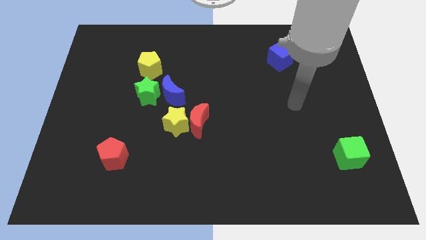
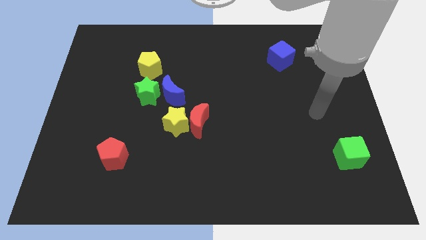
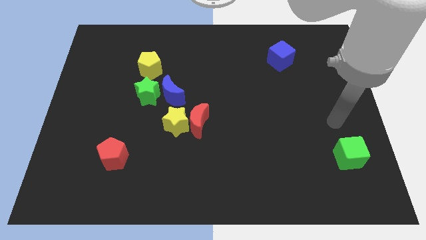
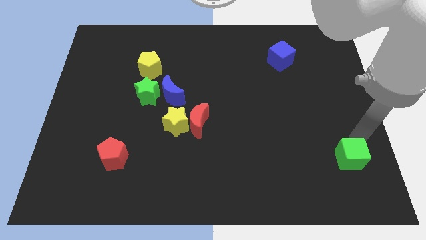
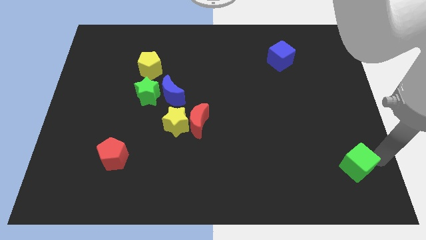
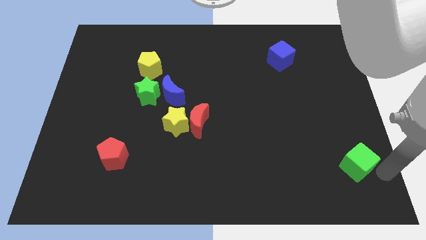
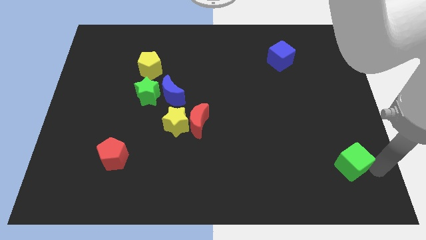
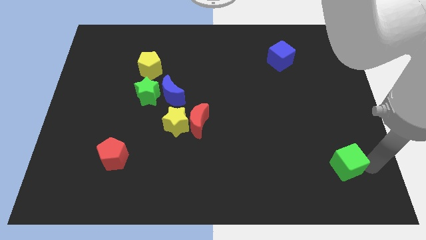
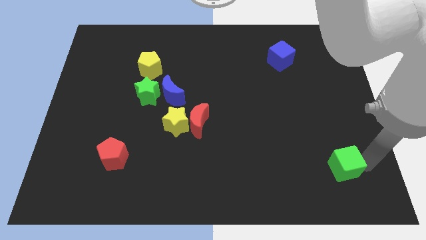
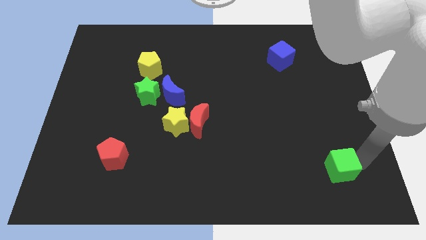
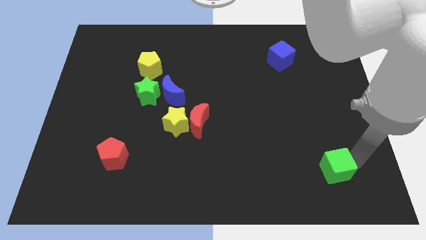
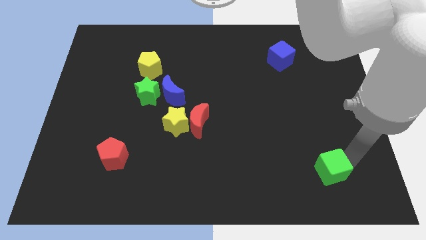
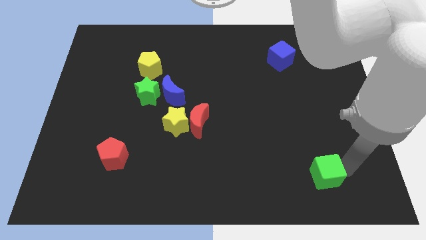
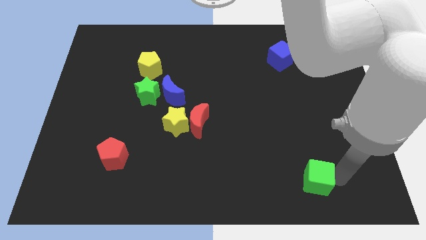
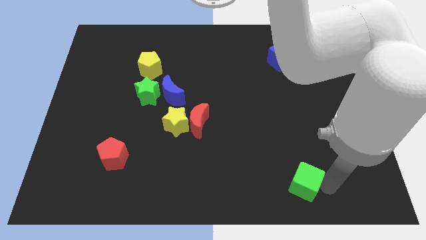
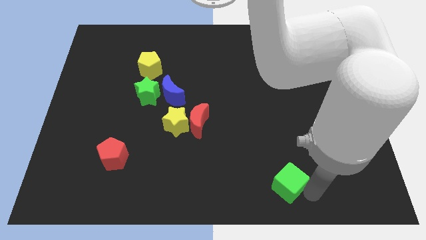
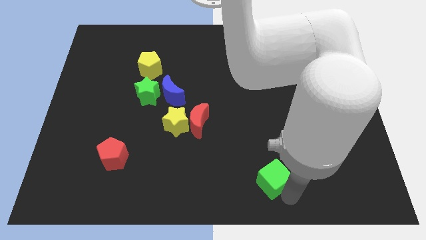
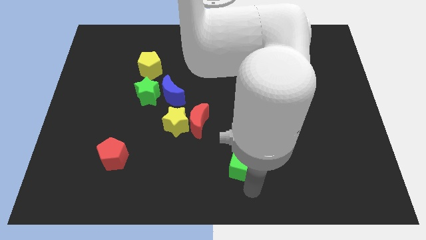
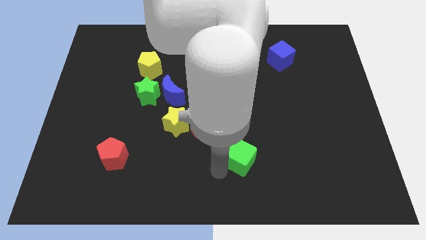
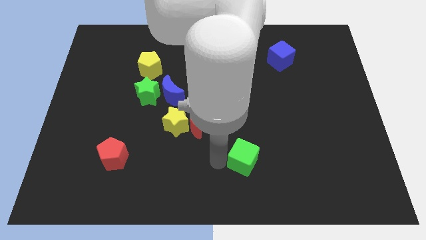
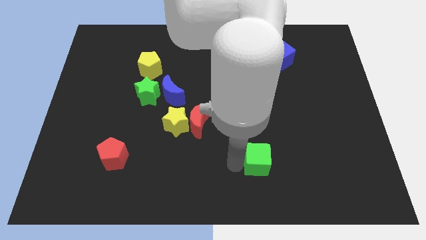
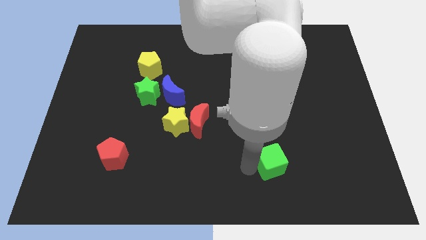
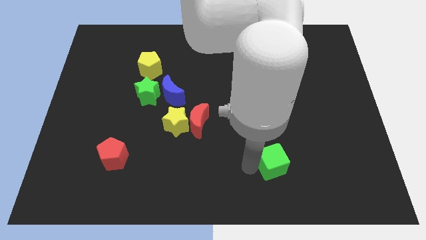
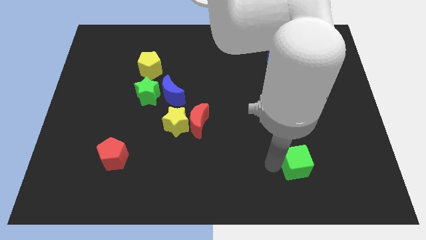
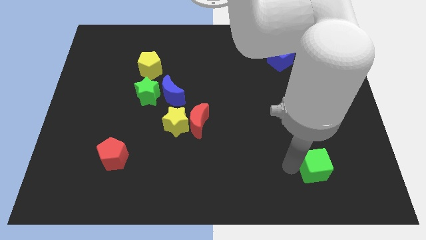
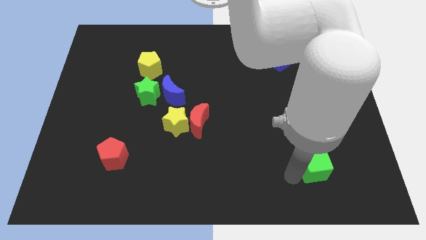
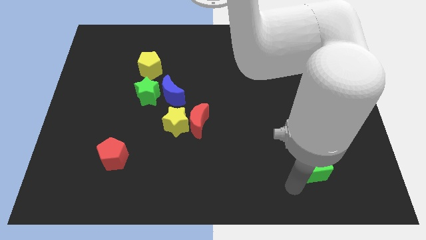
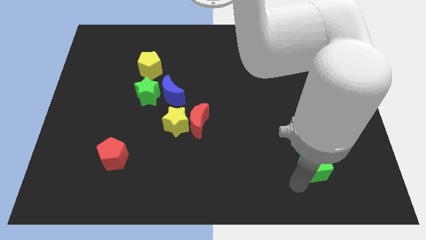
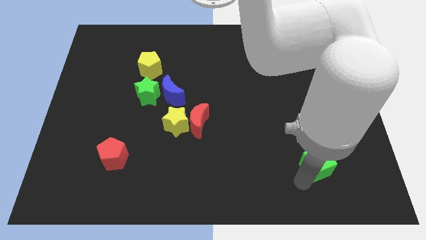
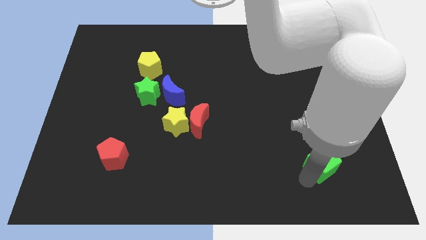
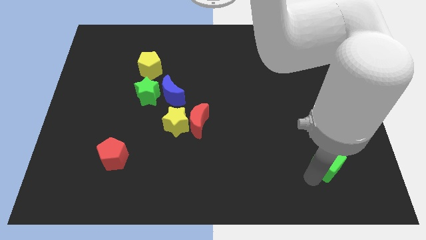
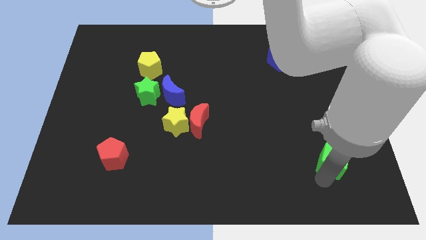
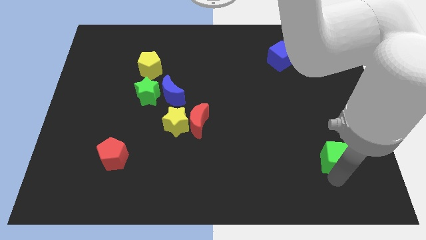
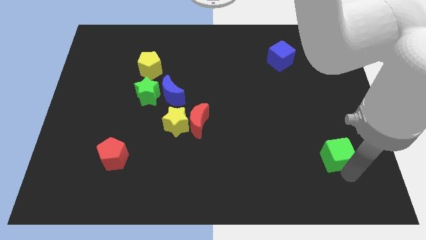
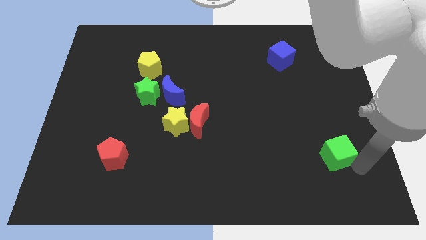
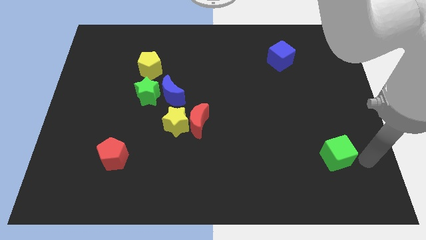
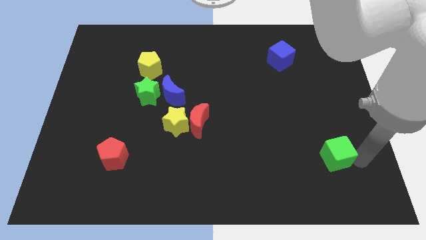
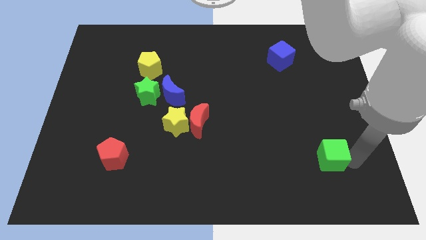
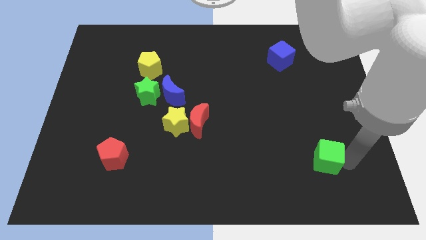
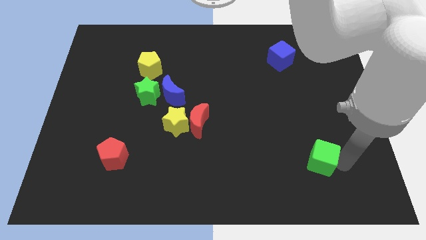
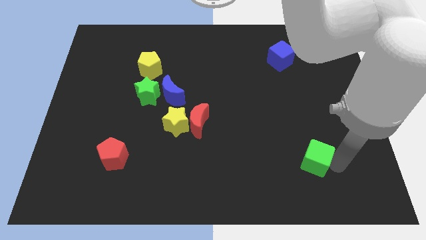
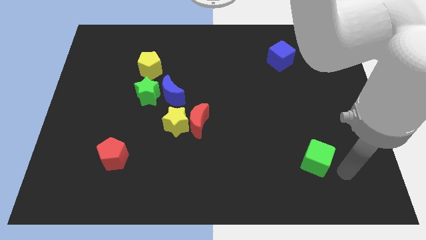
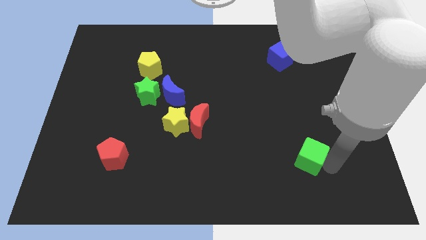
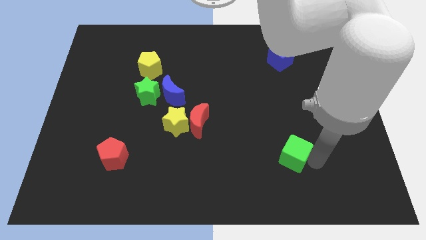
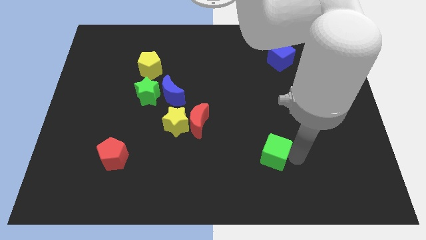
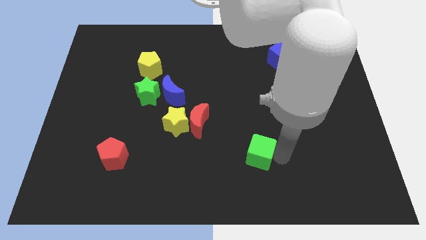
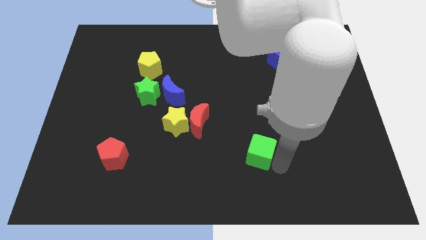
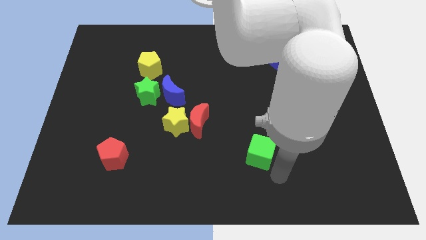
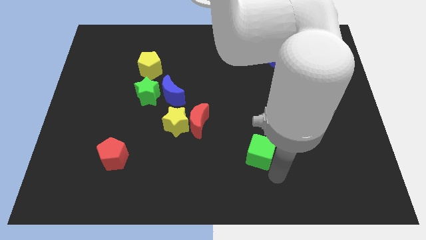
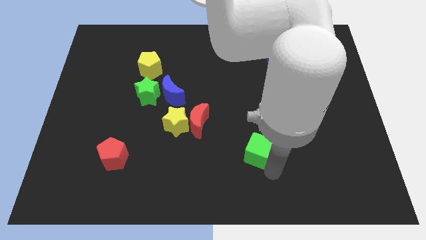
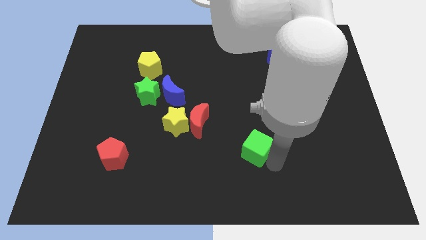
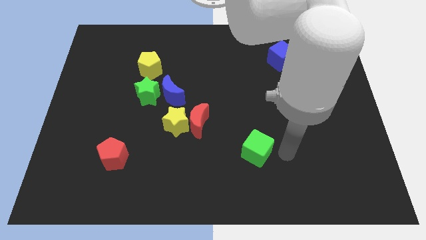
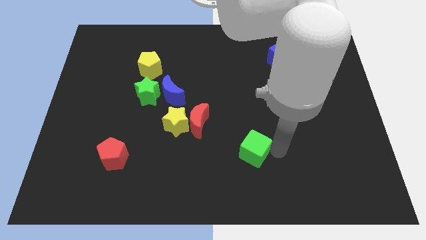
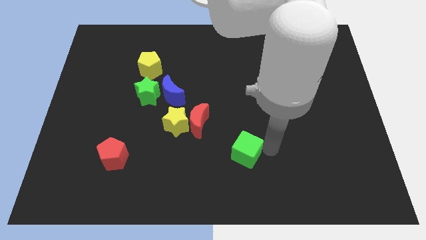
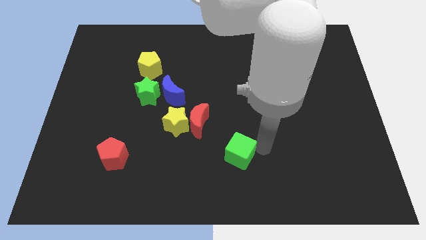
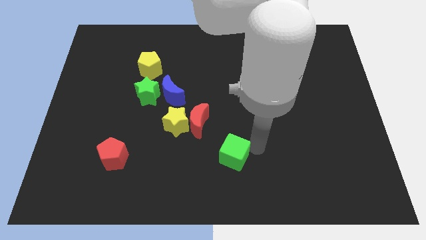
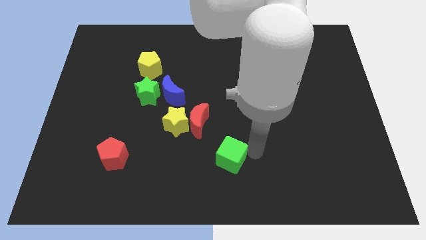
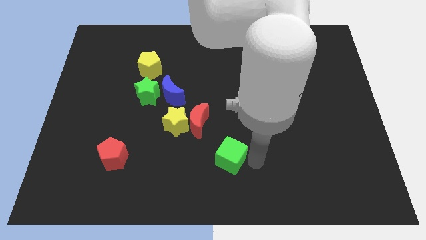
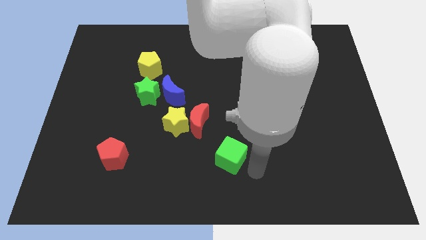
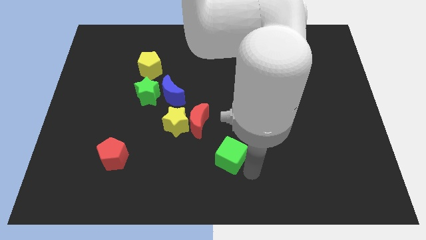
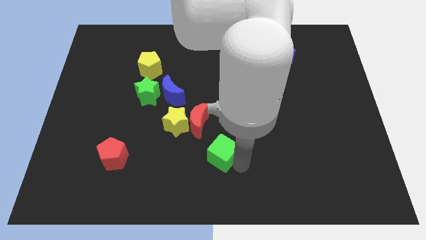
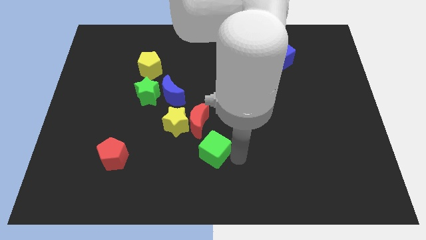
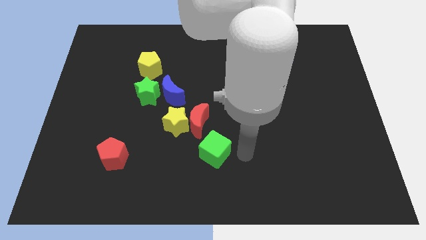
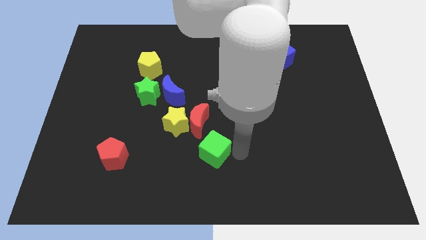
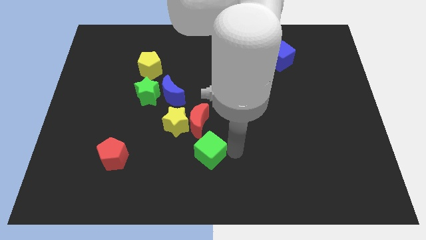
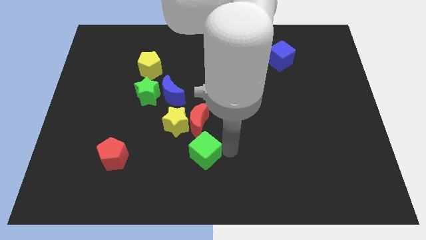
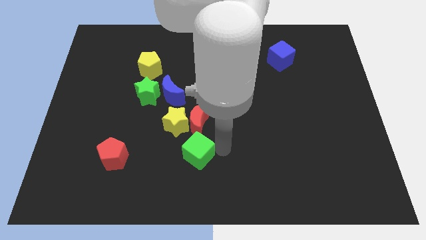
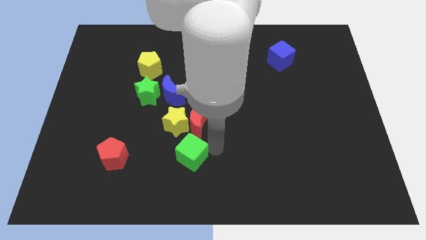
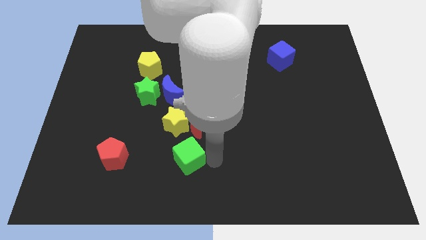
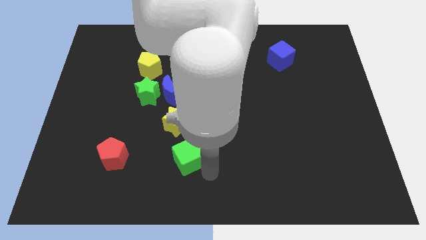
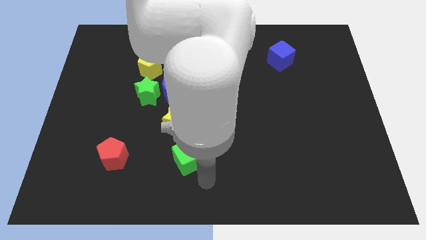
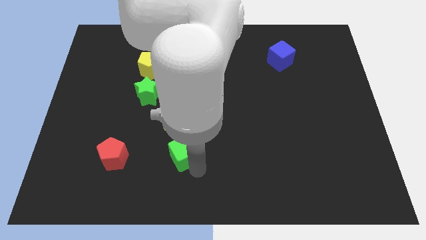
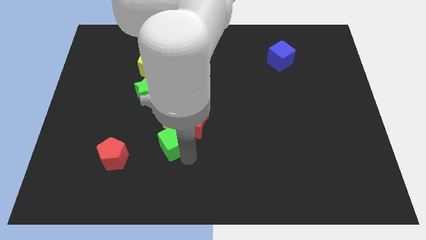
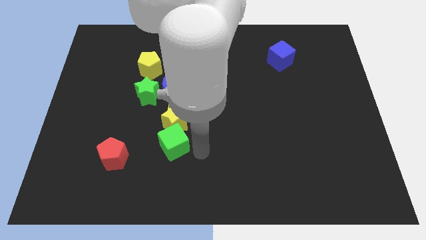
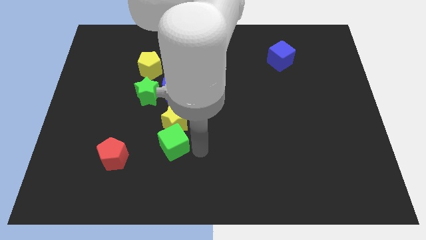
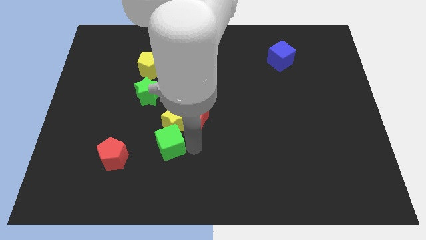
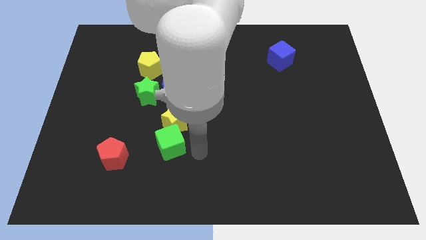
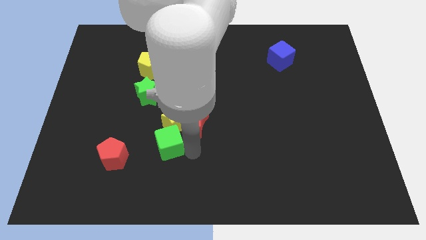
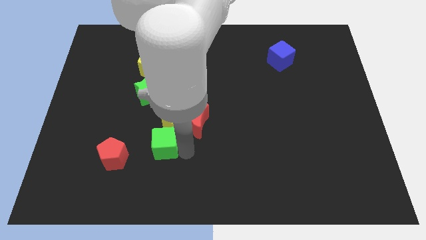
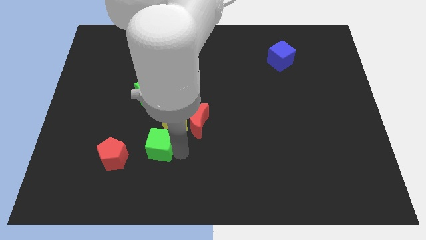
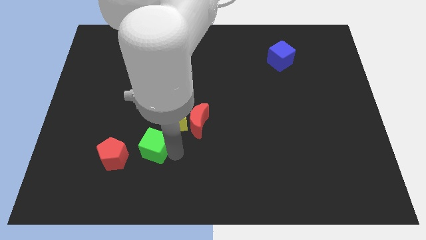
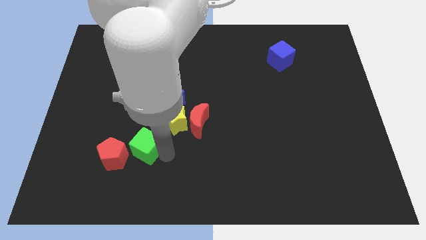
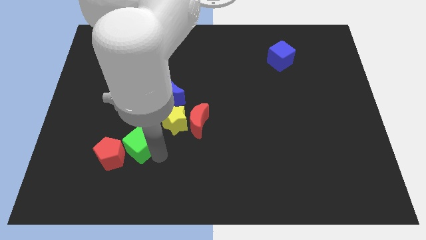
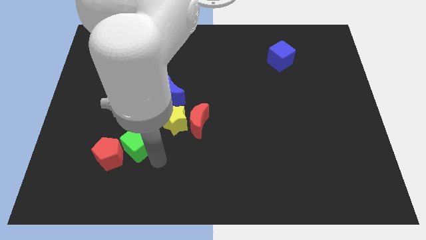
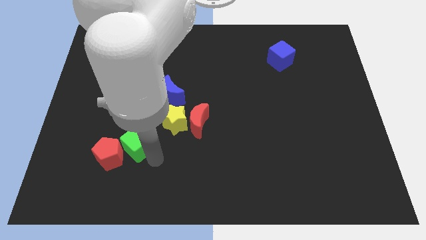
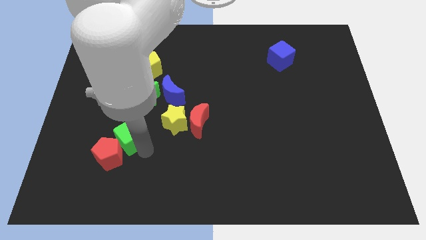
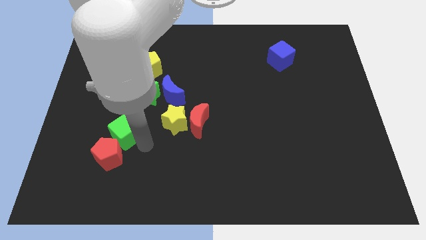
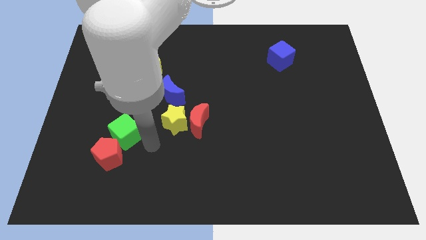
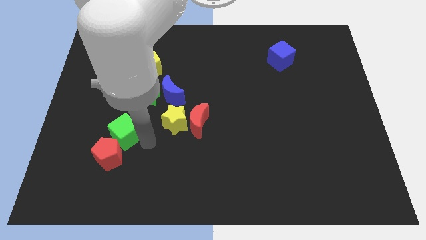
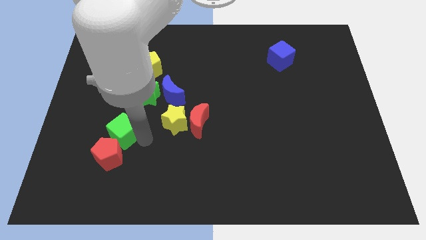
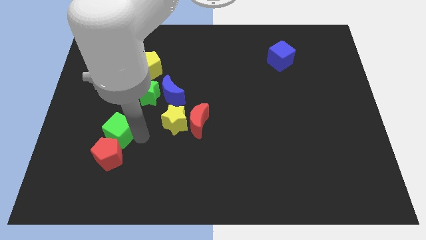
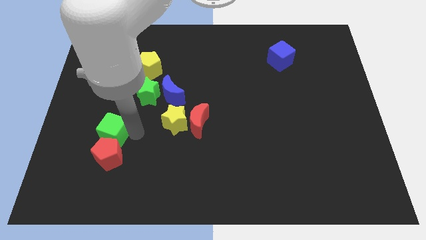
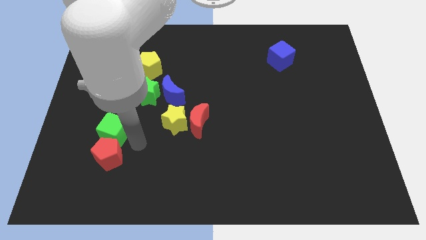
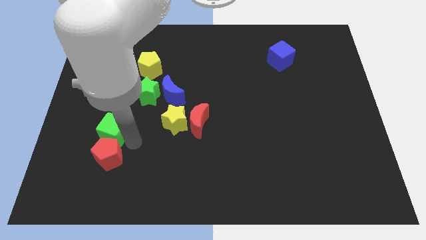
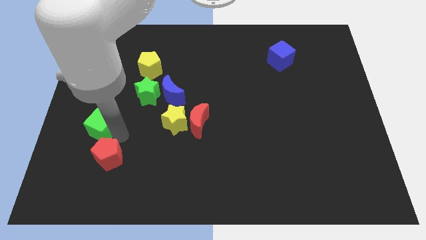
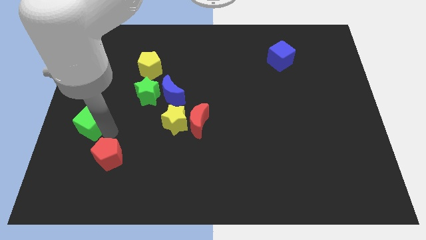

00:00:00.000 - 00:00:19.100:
slide the green cube to the center left
